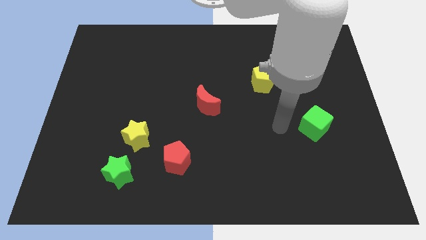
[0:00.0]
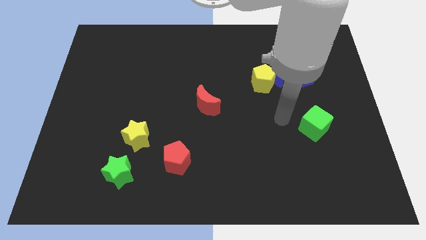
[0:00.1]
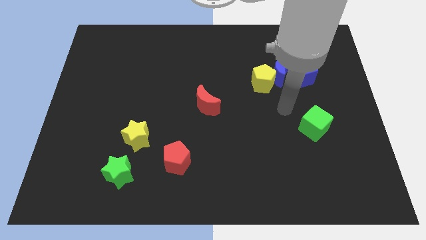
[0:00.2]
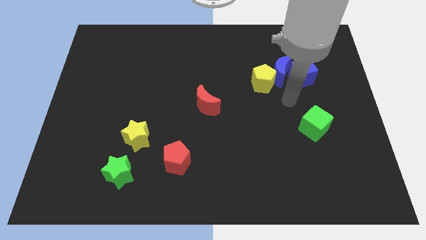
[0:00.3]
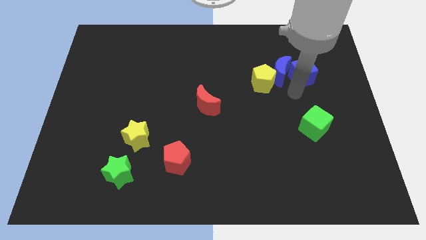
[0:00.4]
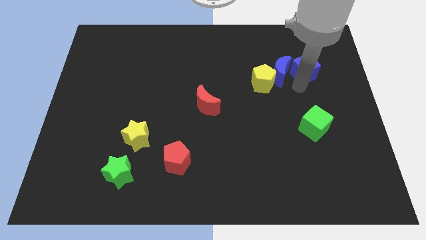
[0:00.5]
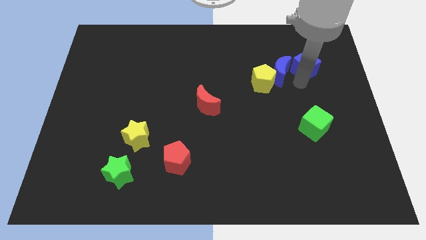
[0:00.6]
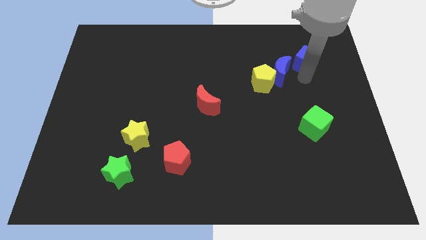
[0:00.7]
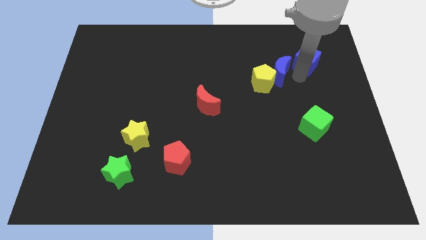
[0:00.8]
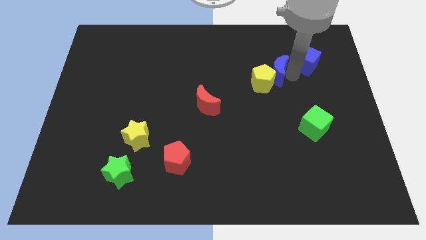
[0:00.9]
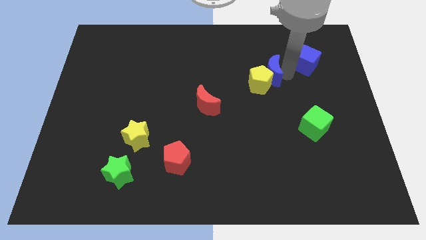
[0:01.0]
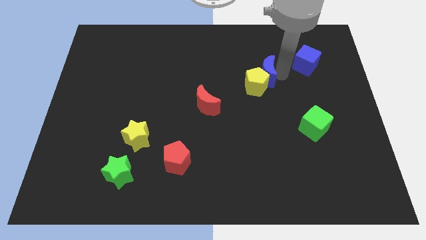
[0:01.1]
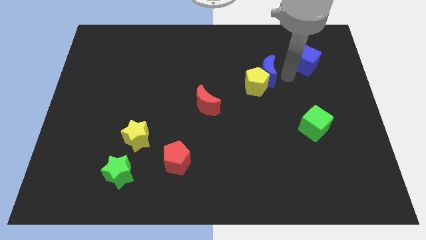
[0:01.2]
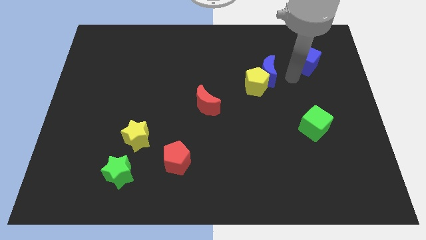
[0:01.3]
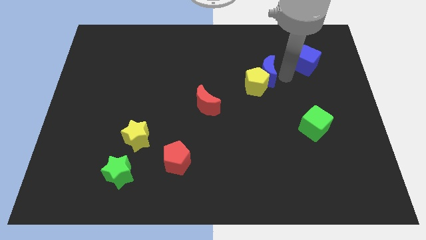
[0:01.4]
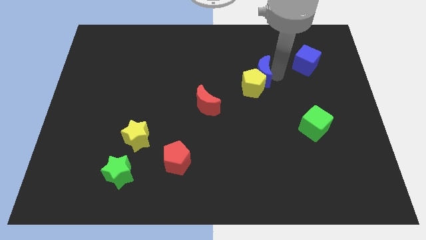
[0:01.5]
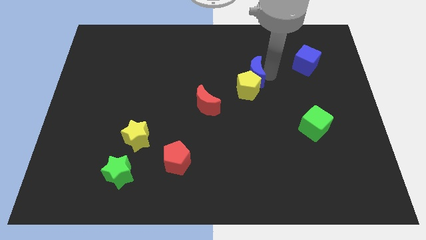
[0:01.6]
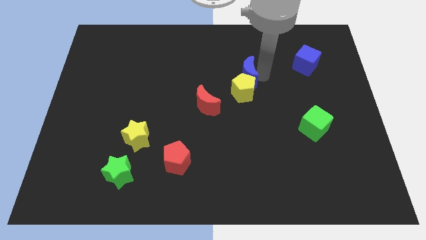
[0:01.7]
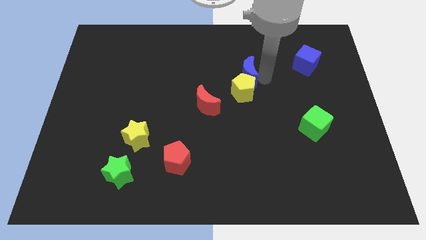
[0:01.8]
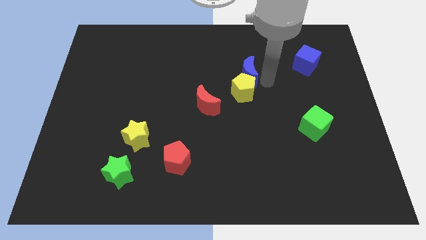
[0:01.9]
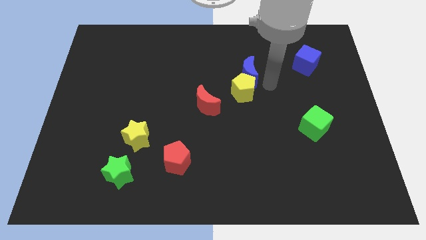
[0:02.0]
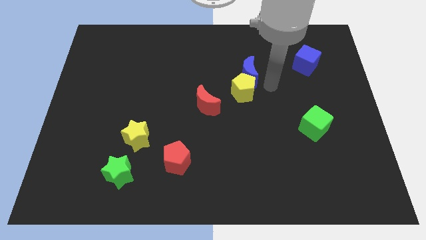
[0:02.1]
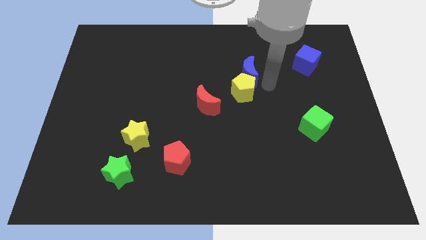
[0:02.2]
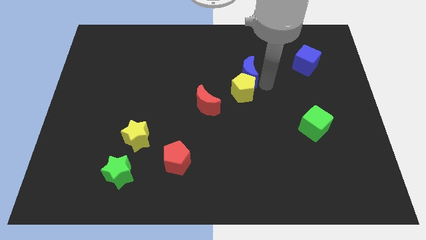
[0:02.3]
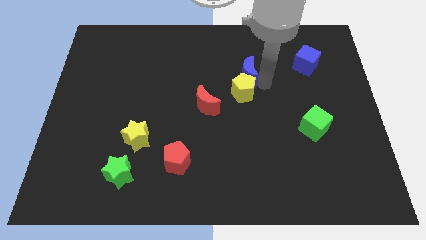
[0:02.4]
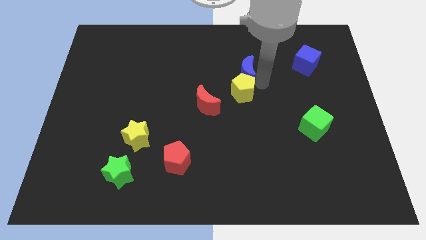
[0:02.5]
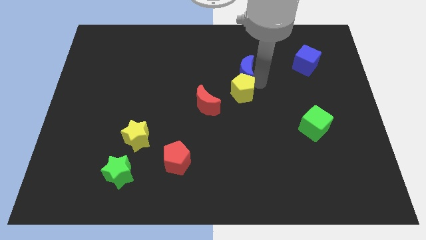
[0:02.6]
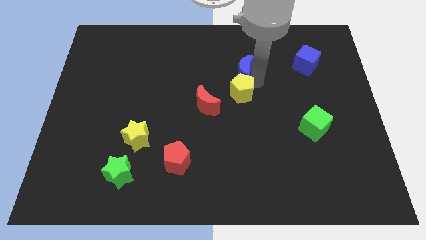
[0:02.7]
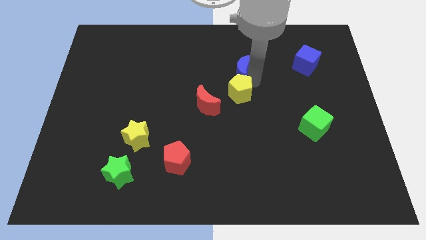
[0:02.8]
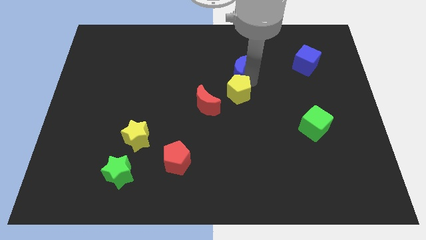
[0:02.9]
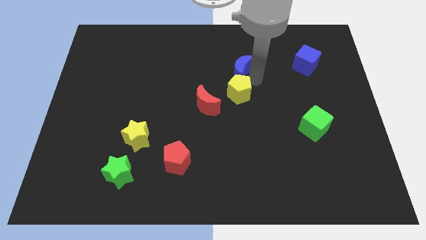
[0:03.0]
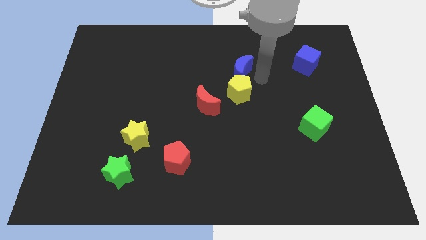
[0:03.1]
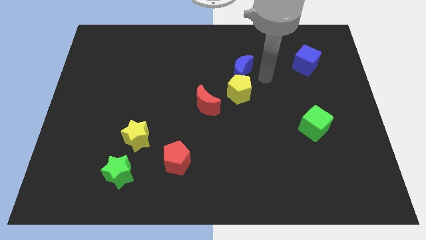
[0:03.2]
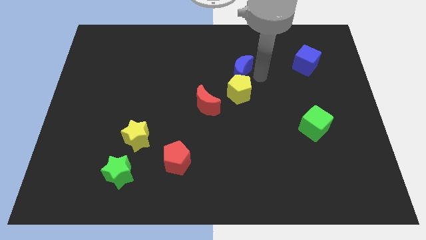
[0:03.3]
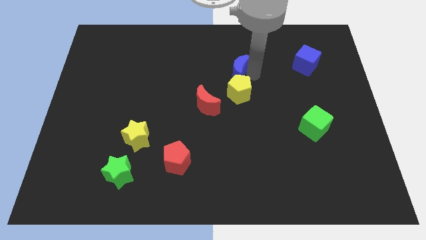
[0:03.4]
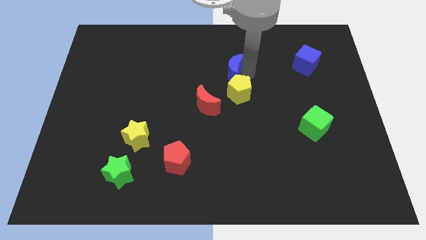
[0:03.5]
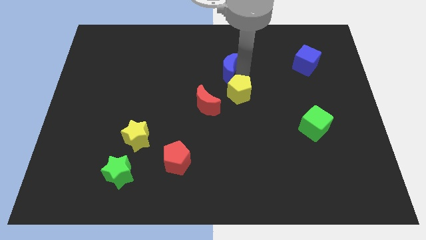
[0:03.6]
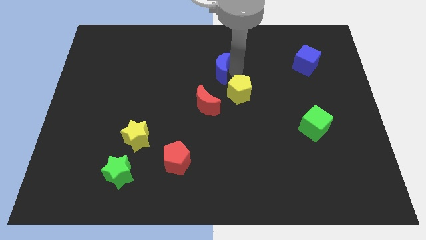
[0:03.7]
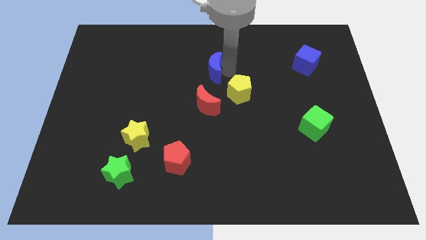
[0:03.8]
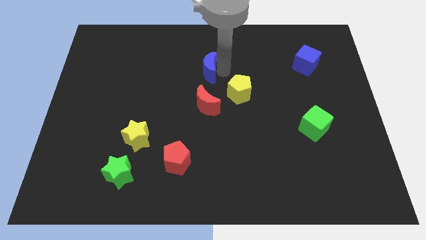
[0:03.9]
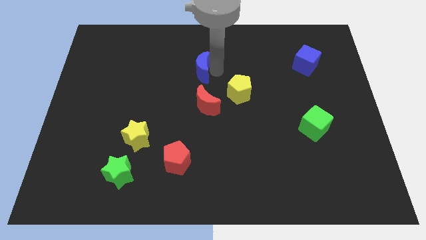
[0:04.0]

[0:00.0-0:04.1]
slide the blue moon to the left

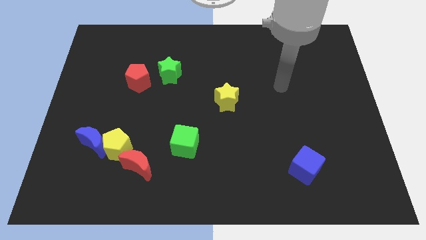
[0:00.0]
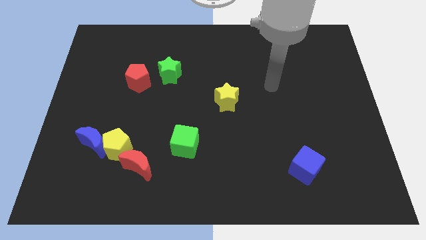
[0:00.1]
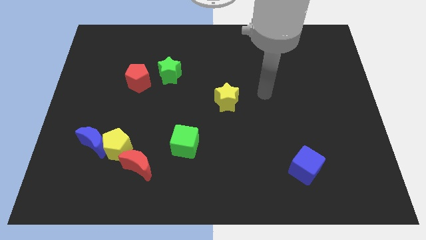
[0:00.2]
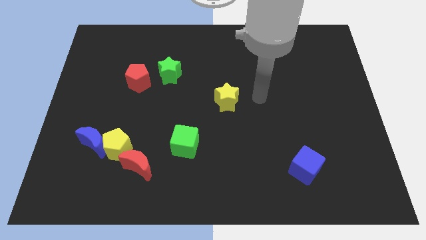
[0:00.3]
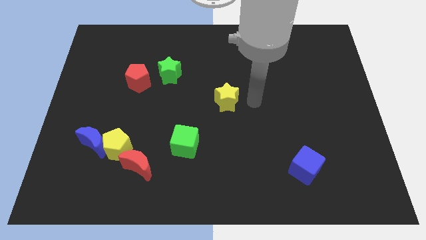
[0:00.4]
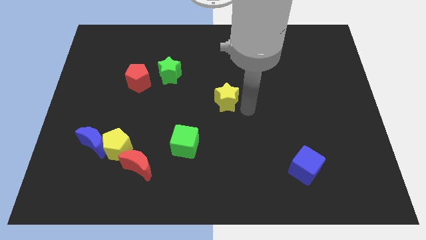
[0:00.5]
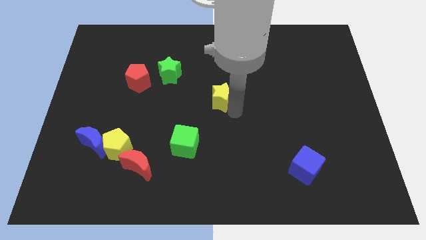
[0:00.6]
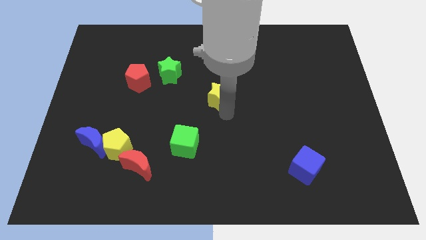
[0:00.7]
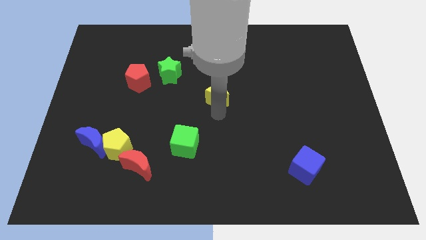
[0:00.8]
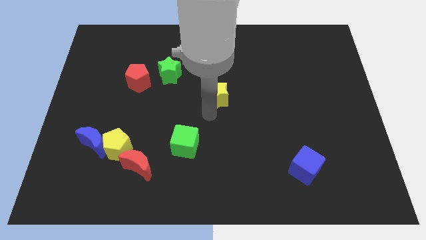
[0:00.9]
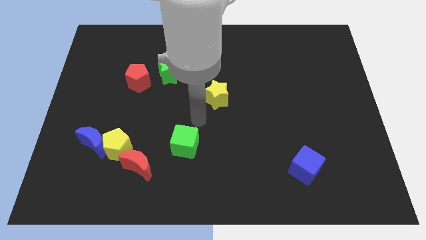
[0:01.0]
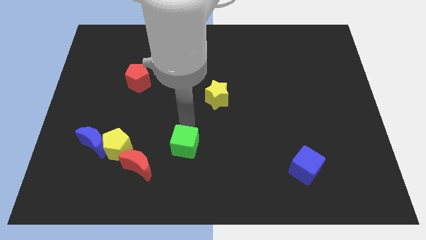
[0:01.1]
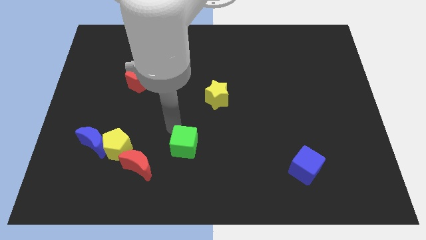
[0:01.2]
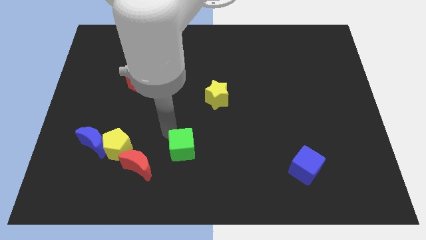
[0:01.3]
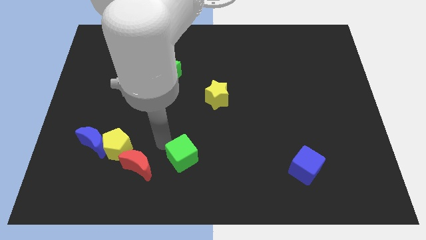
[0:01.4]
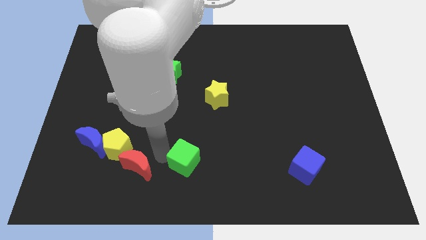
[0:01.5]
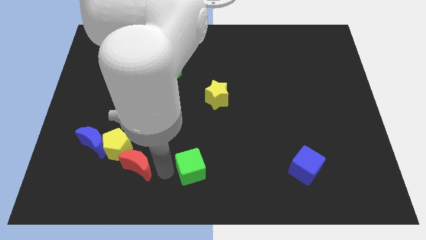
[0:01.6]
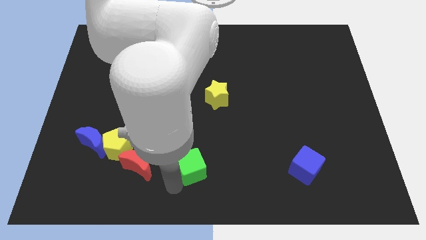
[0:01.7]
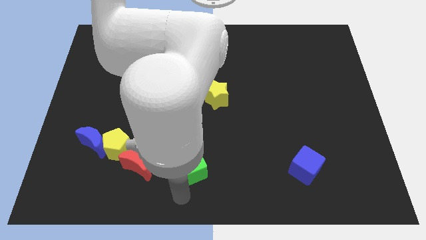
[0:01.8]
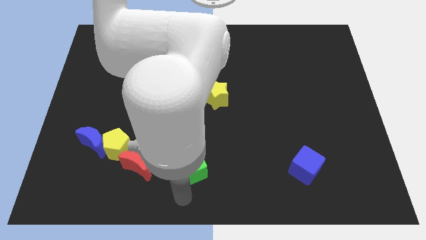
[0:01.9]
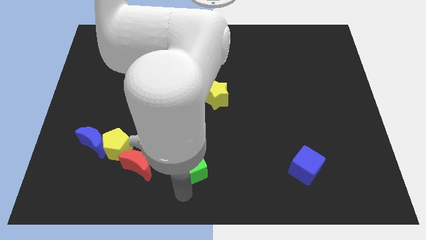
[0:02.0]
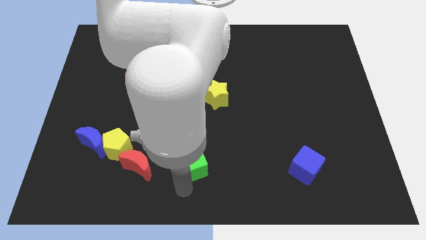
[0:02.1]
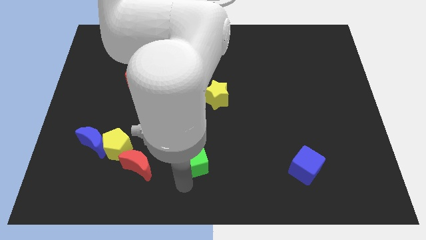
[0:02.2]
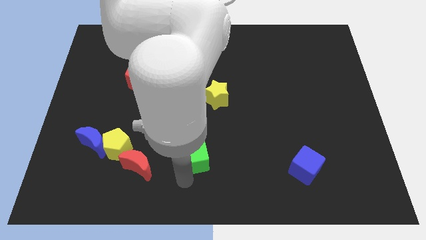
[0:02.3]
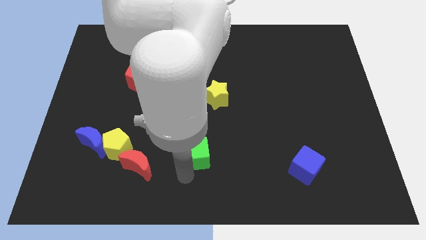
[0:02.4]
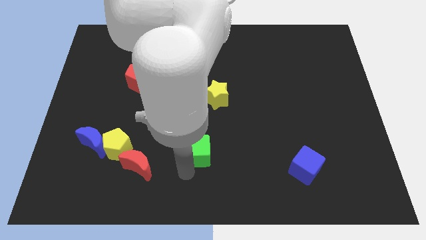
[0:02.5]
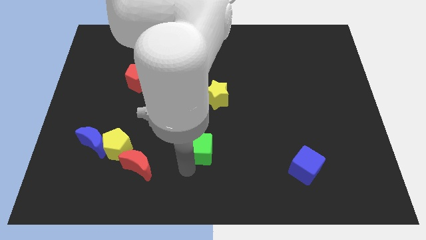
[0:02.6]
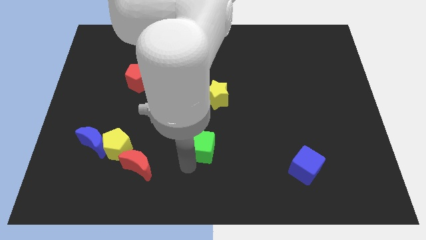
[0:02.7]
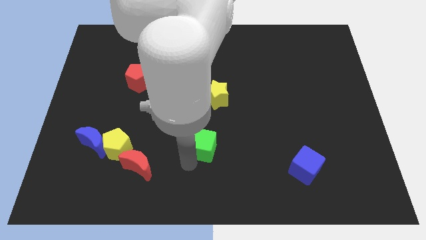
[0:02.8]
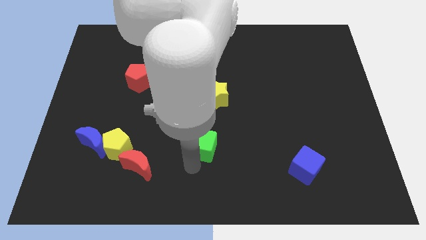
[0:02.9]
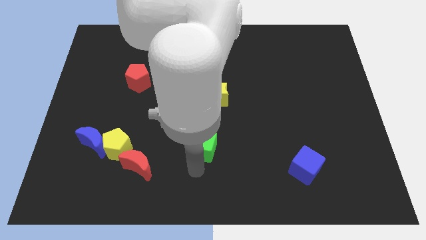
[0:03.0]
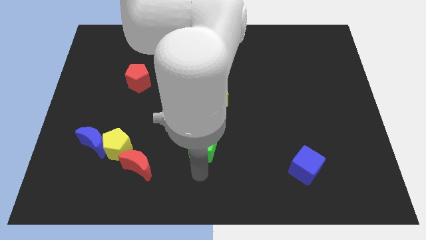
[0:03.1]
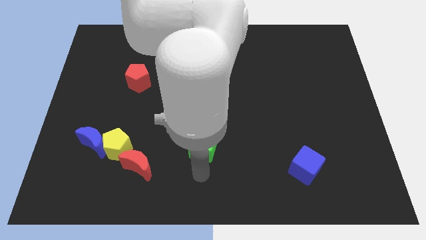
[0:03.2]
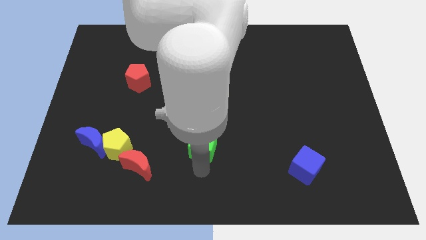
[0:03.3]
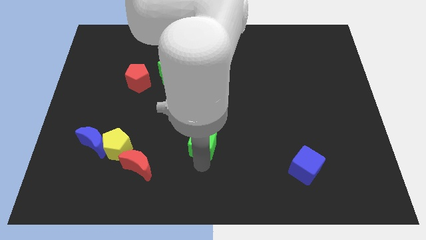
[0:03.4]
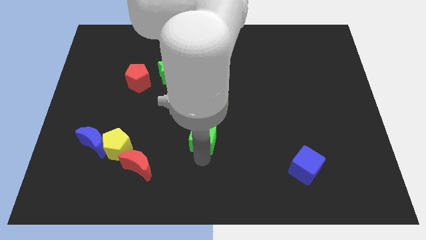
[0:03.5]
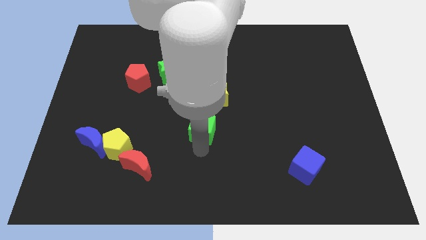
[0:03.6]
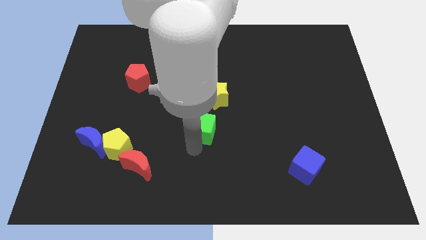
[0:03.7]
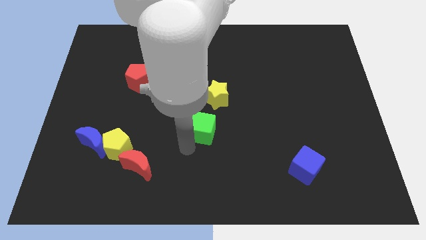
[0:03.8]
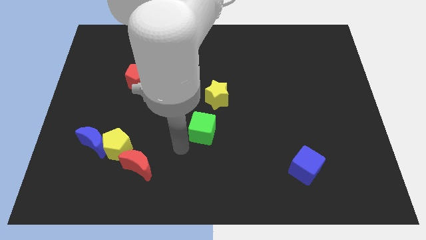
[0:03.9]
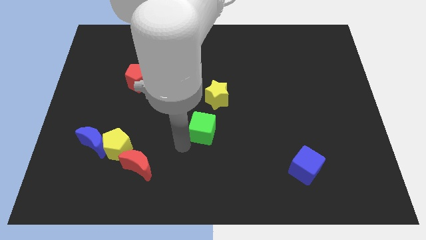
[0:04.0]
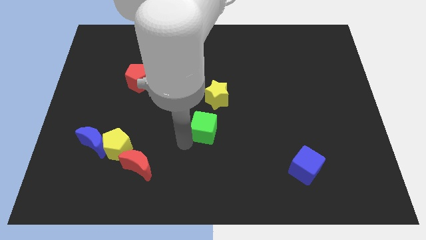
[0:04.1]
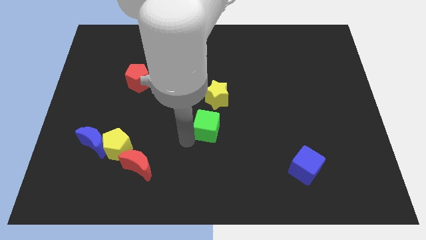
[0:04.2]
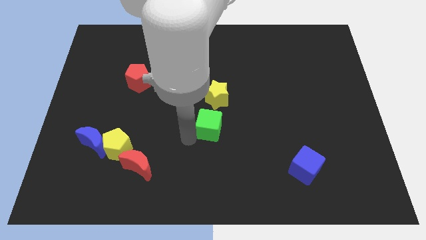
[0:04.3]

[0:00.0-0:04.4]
slightly push the green cube upwards and then right
